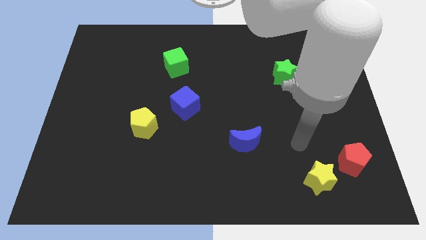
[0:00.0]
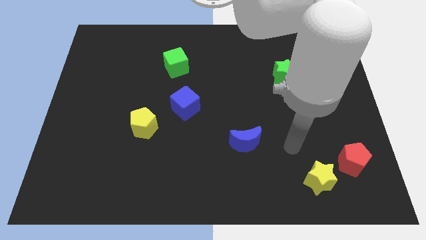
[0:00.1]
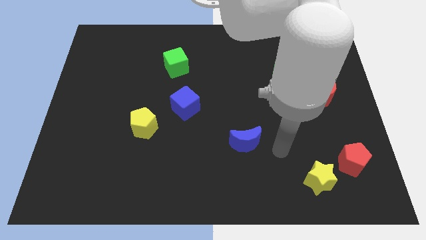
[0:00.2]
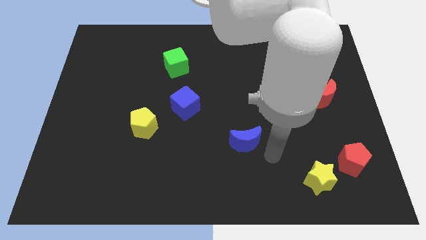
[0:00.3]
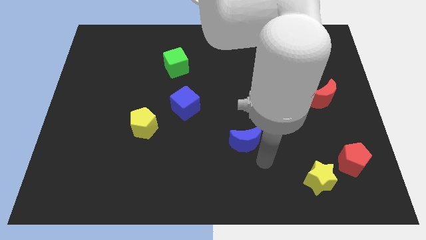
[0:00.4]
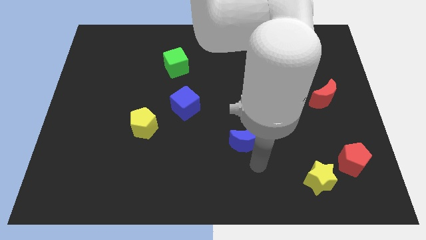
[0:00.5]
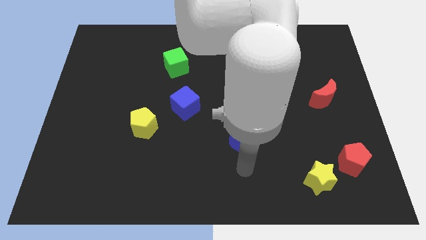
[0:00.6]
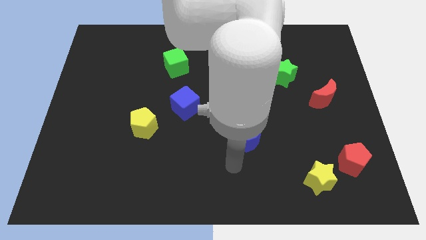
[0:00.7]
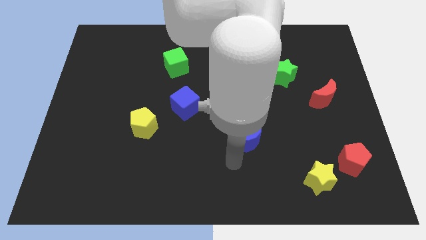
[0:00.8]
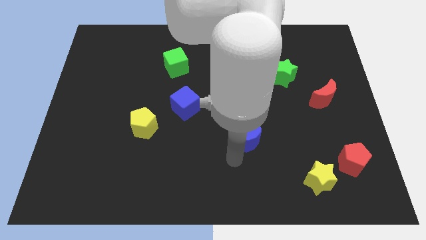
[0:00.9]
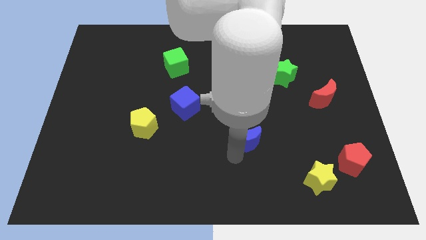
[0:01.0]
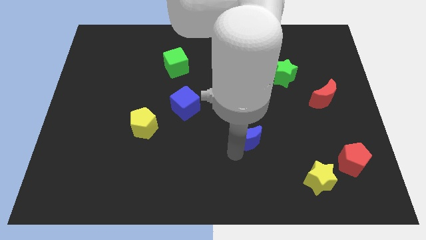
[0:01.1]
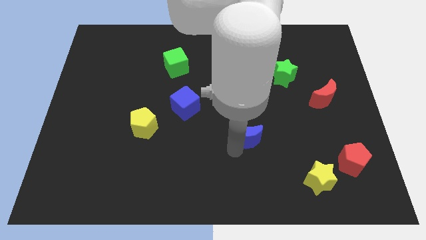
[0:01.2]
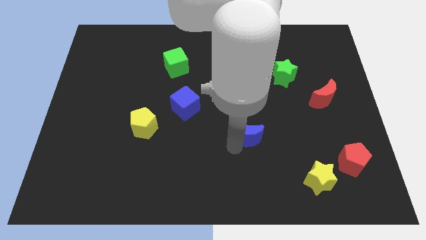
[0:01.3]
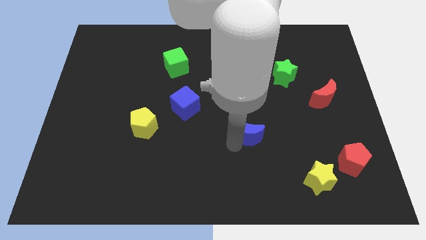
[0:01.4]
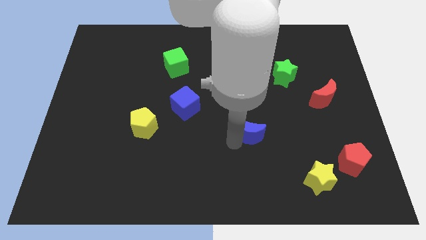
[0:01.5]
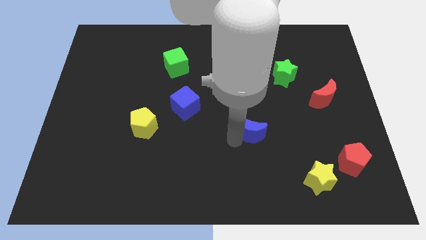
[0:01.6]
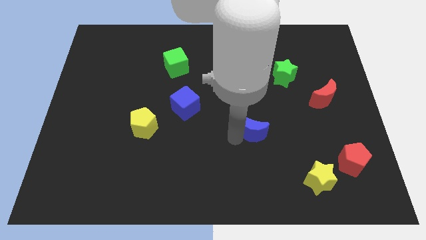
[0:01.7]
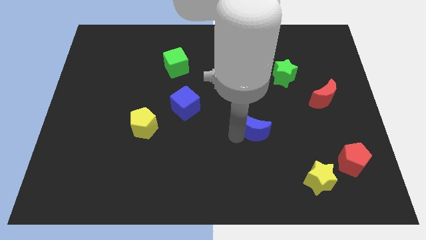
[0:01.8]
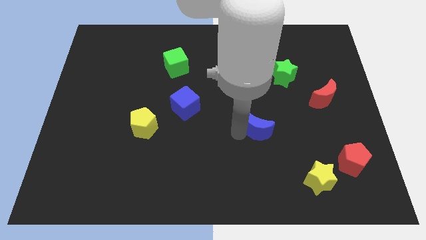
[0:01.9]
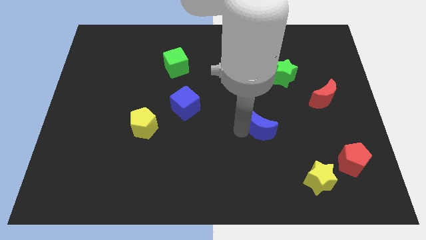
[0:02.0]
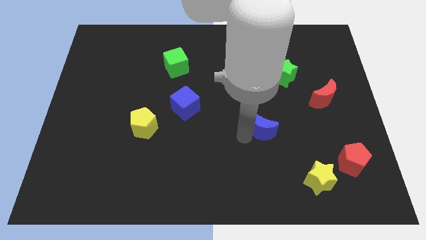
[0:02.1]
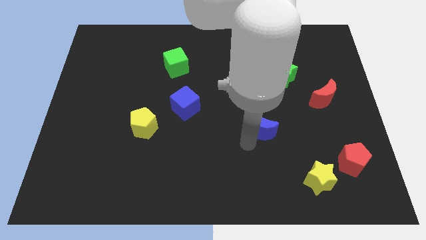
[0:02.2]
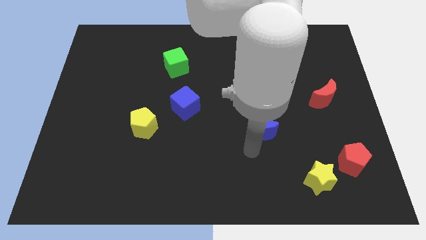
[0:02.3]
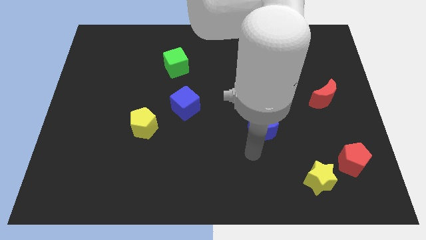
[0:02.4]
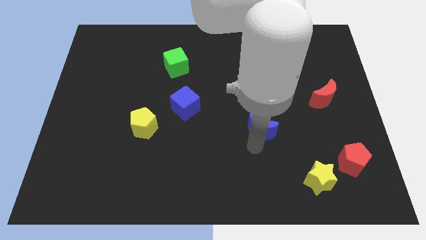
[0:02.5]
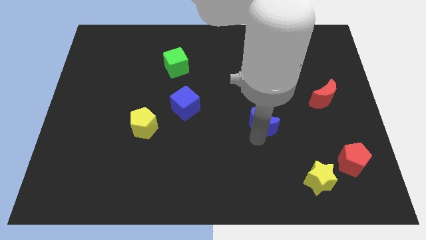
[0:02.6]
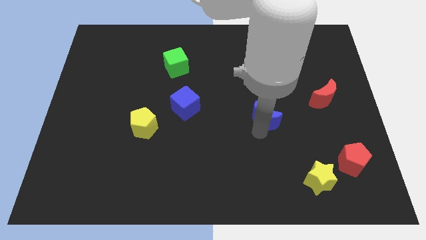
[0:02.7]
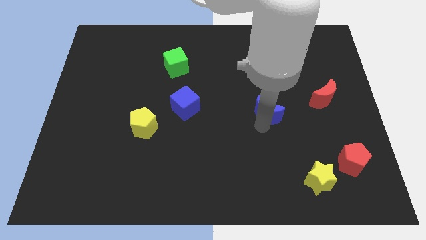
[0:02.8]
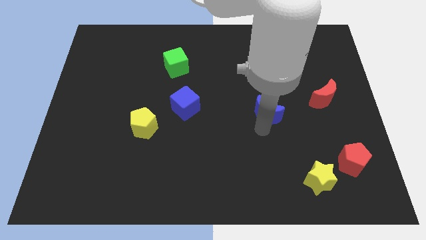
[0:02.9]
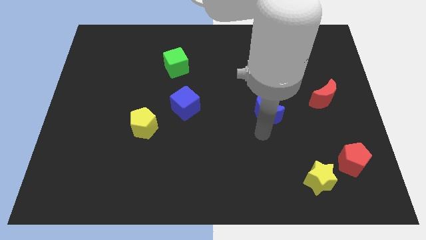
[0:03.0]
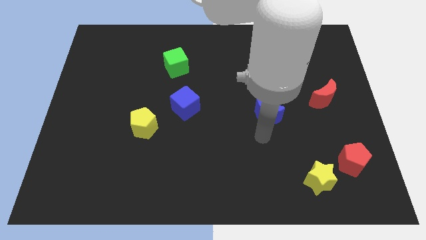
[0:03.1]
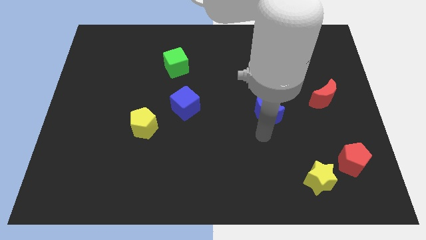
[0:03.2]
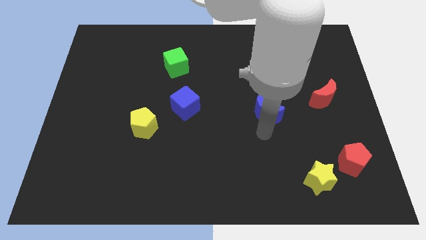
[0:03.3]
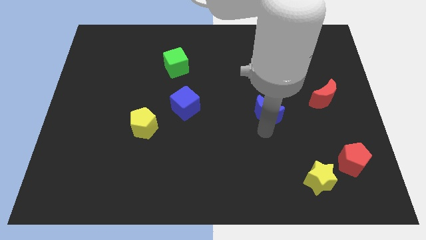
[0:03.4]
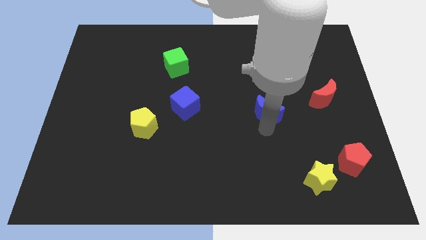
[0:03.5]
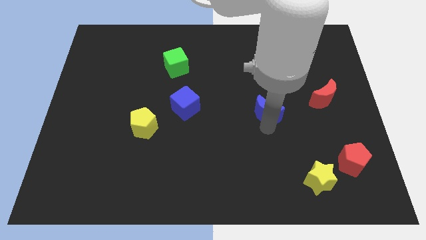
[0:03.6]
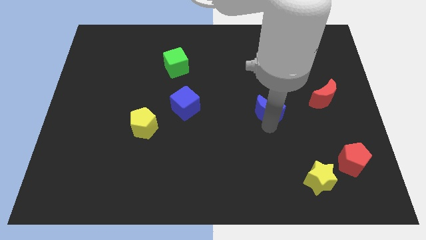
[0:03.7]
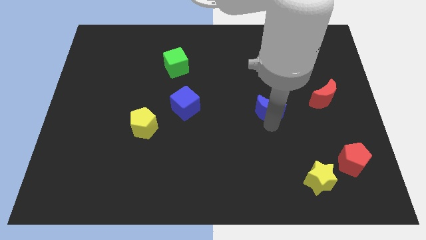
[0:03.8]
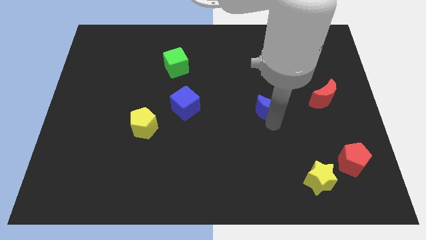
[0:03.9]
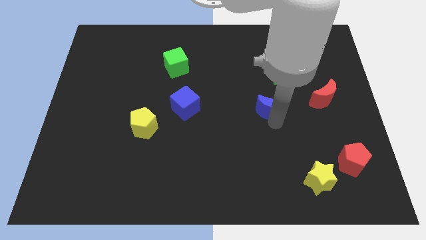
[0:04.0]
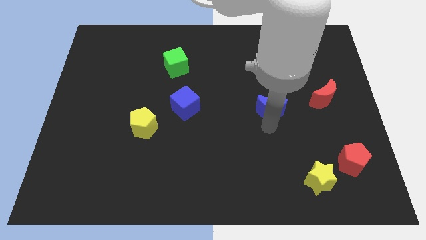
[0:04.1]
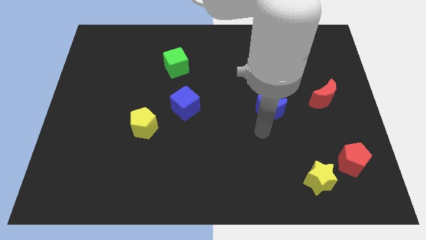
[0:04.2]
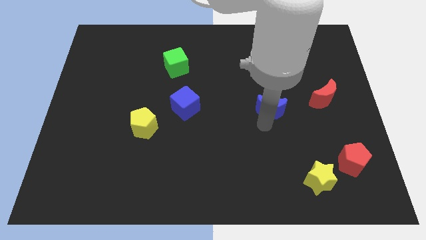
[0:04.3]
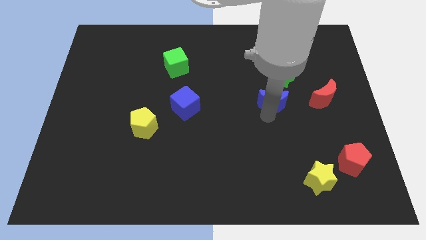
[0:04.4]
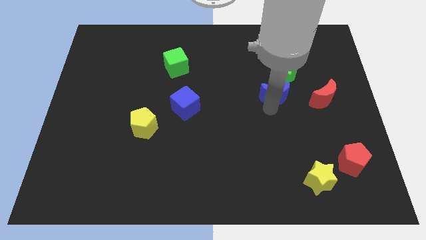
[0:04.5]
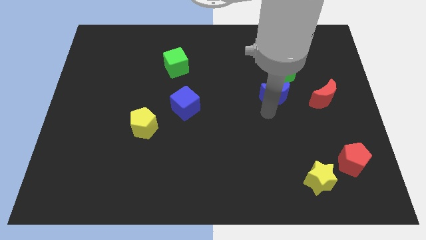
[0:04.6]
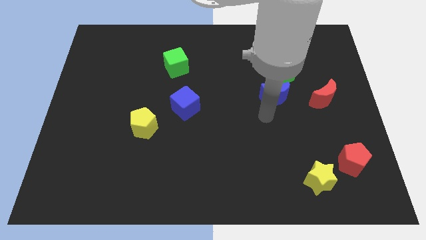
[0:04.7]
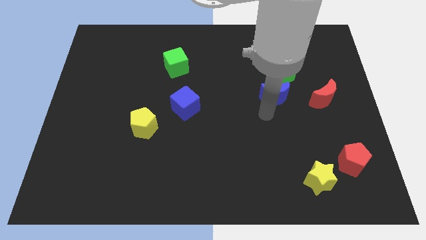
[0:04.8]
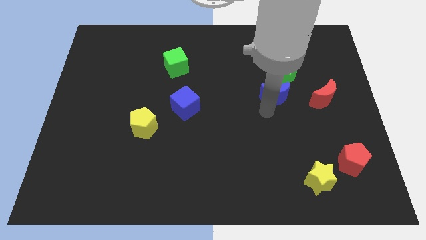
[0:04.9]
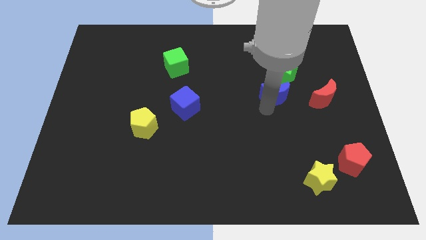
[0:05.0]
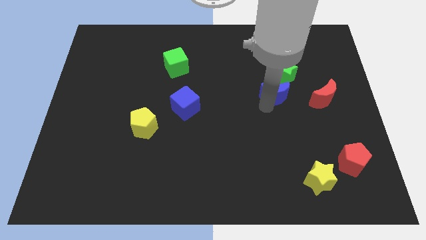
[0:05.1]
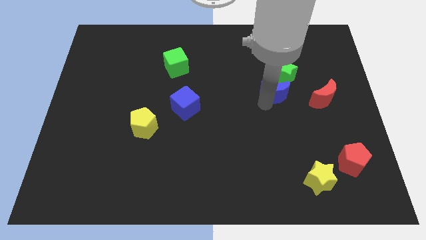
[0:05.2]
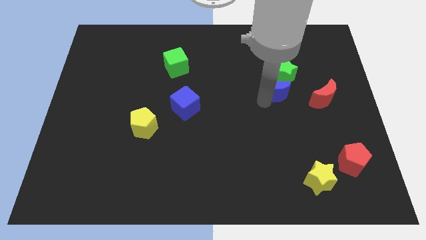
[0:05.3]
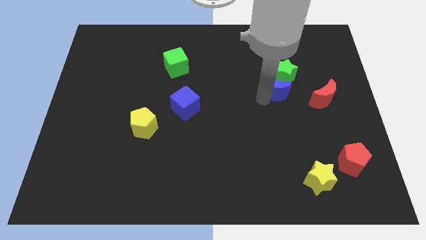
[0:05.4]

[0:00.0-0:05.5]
move the blue moon close to the green star

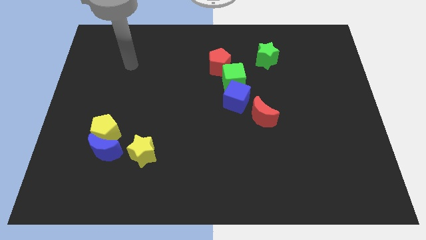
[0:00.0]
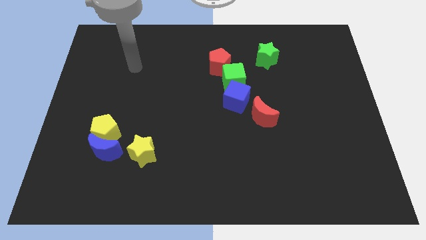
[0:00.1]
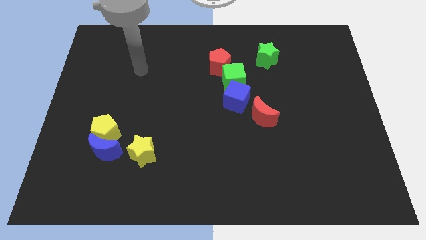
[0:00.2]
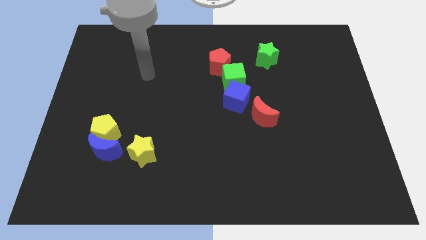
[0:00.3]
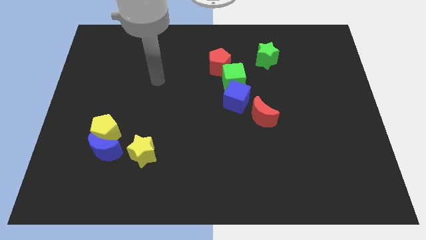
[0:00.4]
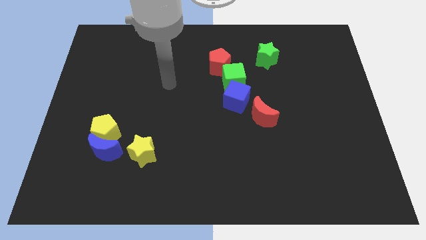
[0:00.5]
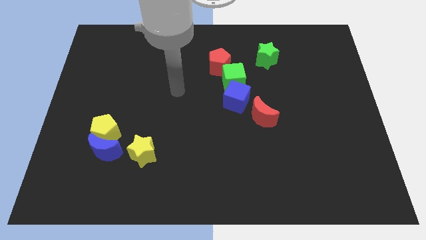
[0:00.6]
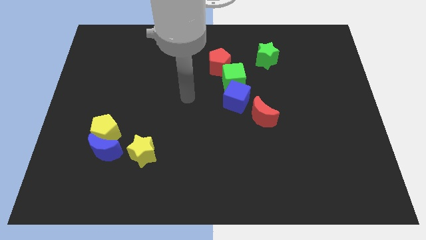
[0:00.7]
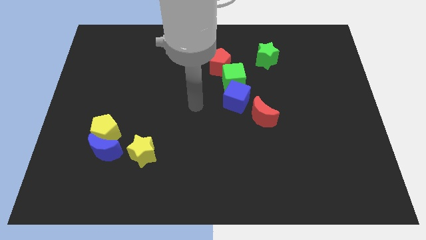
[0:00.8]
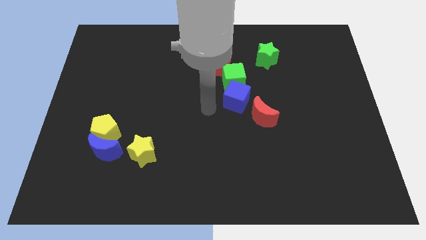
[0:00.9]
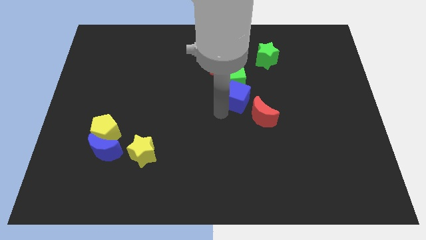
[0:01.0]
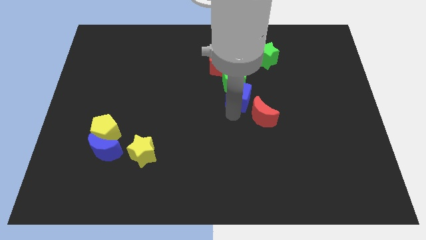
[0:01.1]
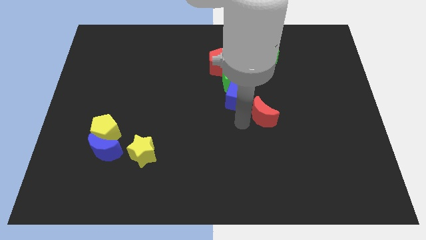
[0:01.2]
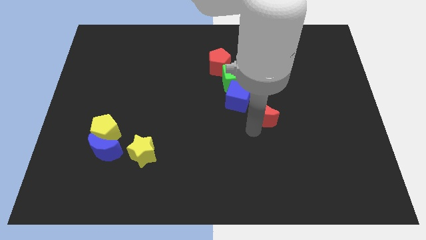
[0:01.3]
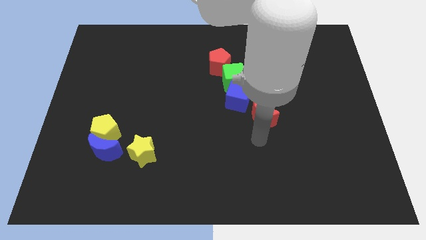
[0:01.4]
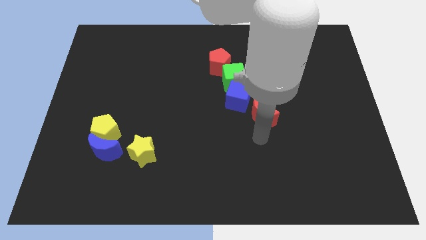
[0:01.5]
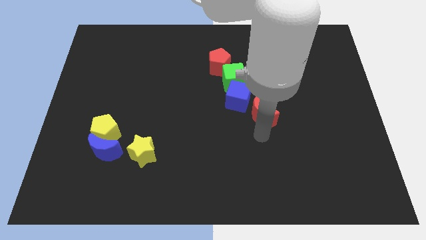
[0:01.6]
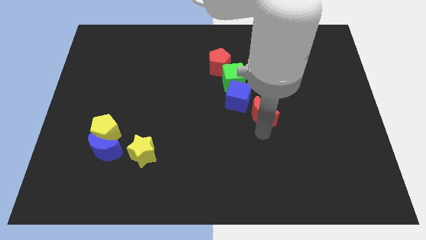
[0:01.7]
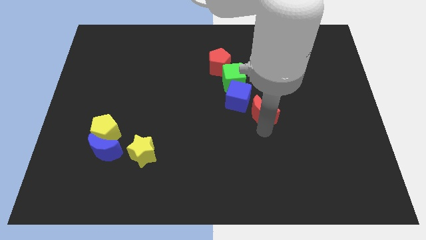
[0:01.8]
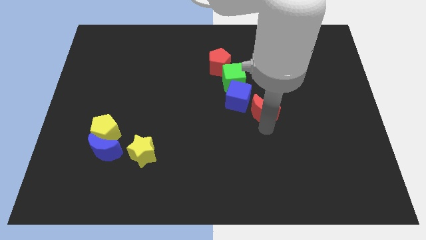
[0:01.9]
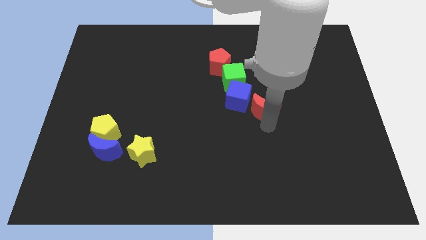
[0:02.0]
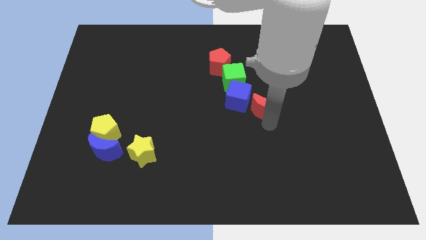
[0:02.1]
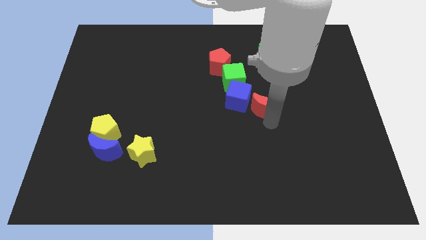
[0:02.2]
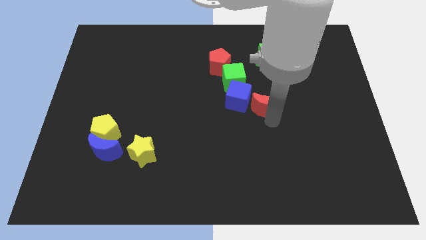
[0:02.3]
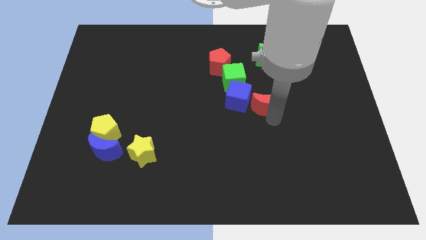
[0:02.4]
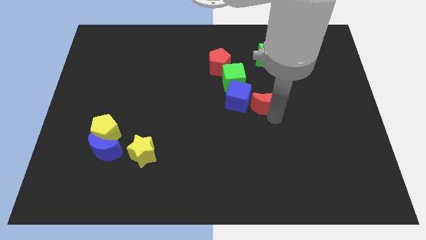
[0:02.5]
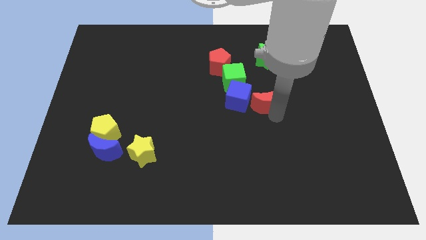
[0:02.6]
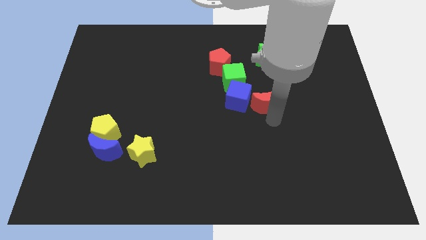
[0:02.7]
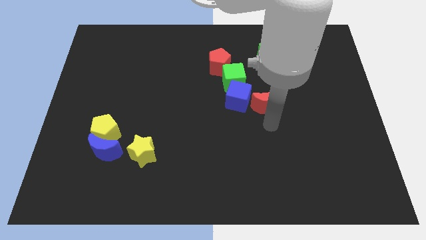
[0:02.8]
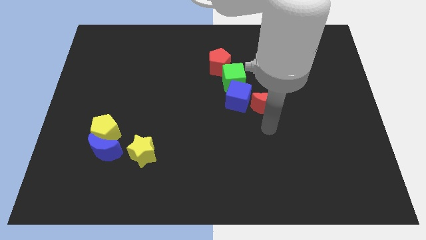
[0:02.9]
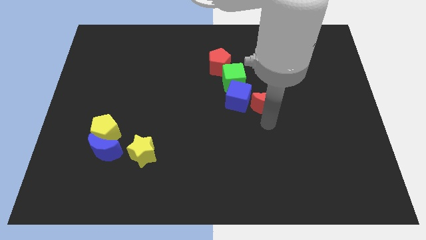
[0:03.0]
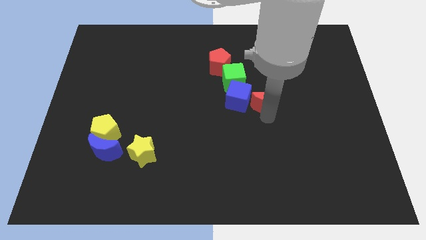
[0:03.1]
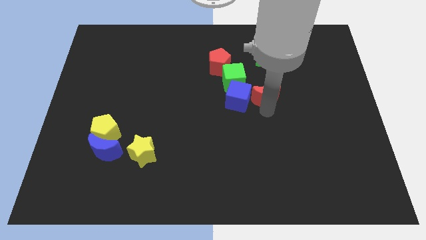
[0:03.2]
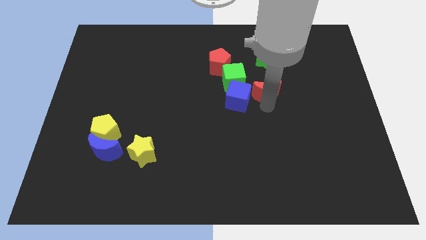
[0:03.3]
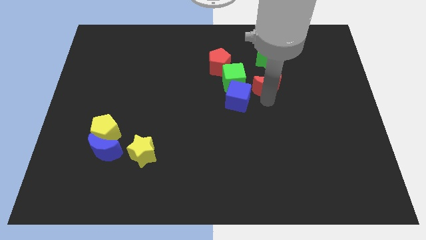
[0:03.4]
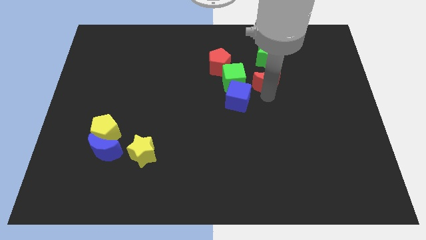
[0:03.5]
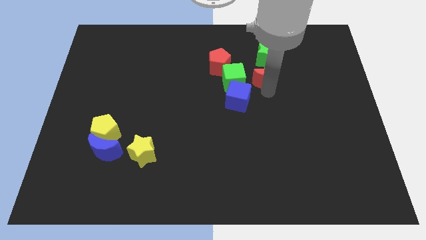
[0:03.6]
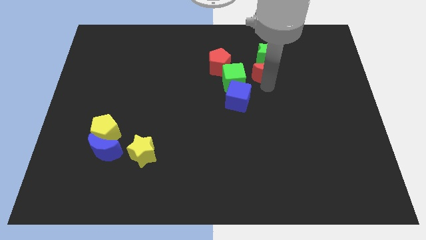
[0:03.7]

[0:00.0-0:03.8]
slide the red moon next to the green star
